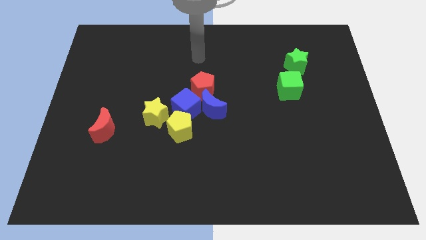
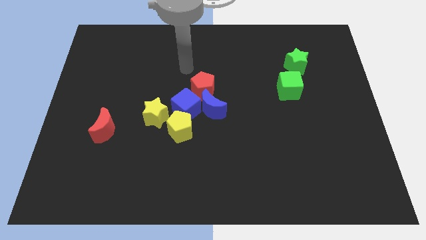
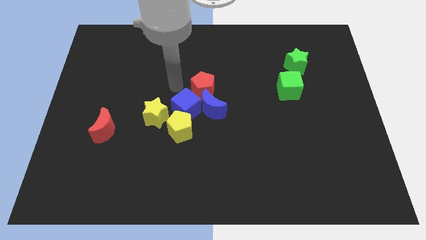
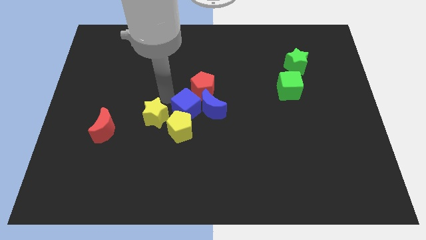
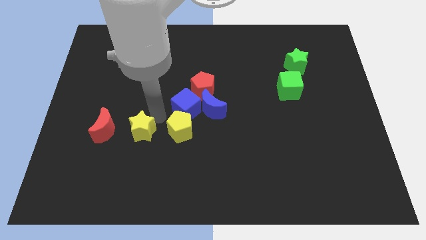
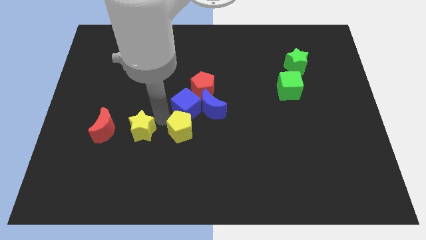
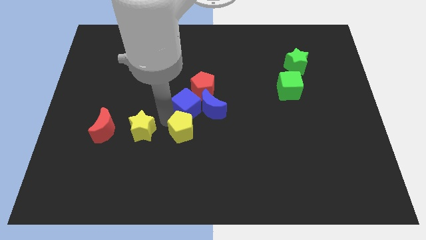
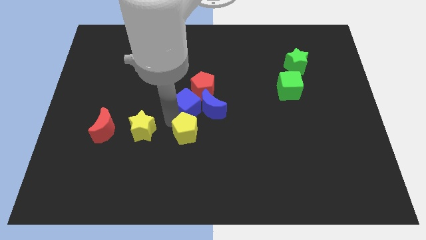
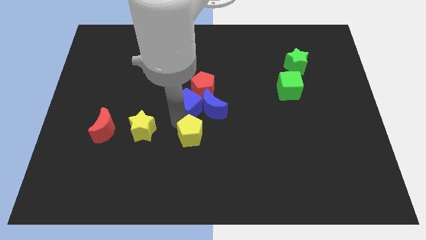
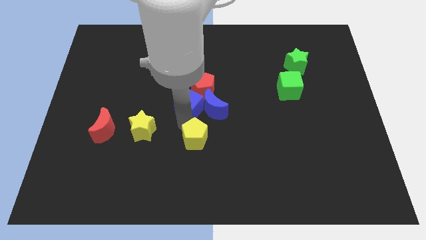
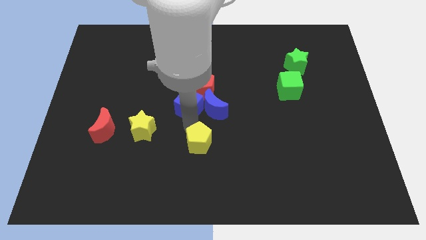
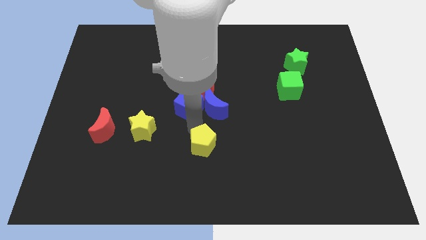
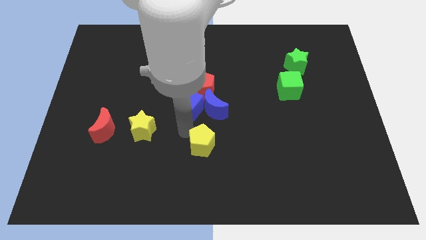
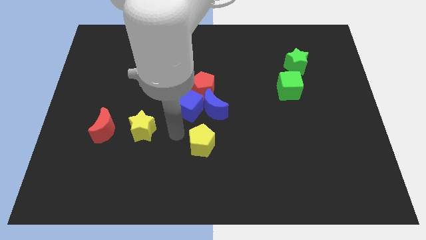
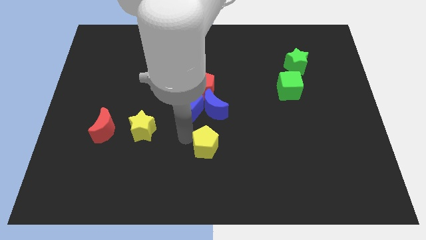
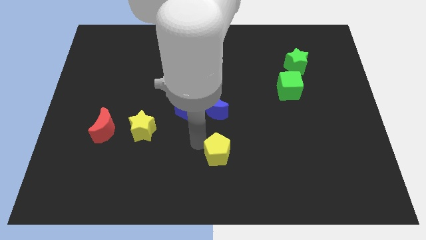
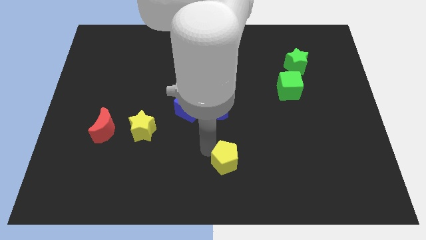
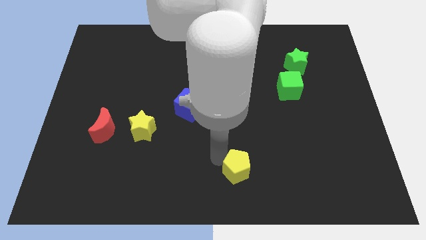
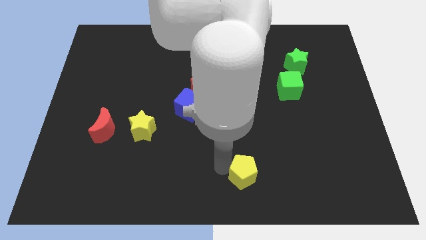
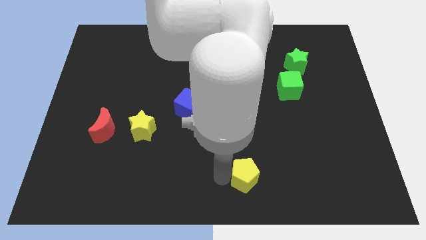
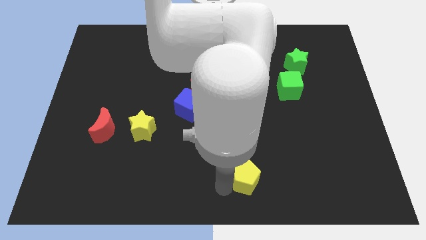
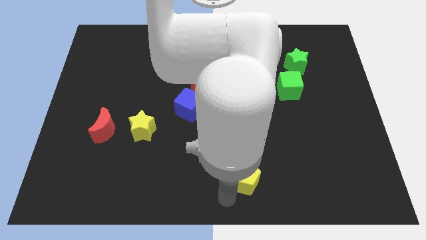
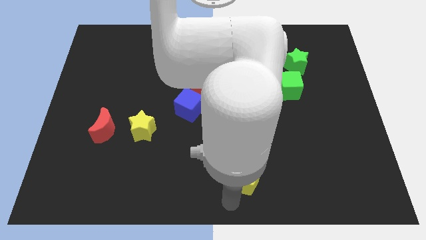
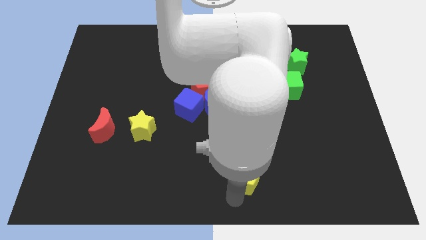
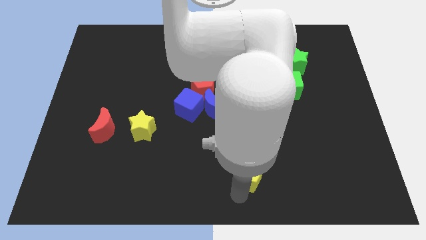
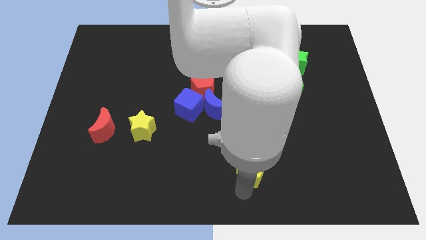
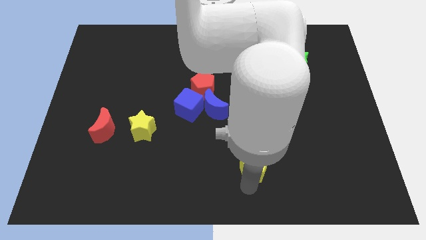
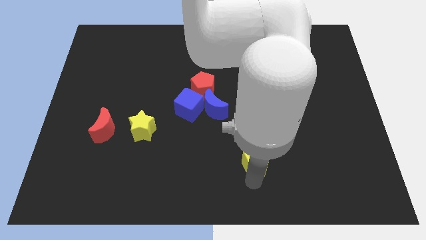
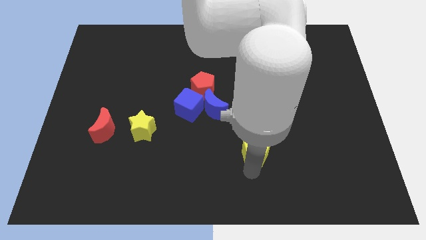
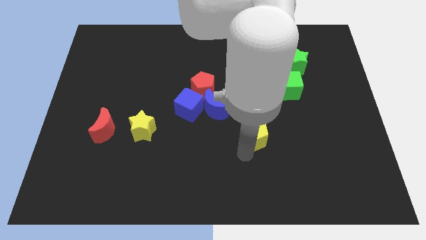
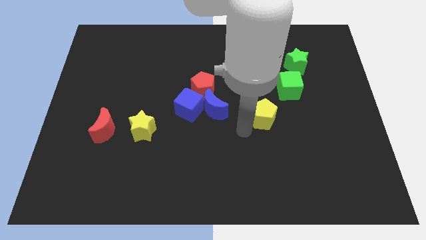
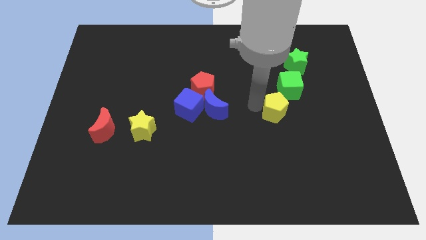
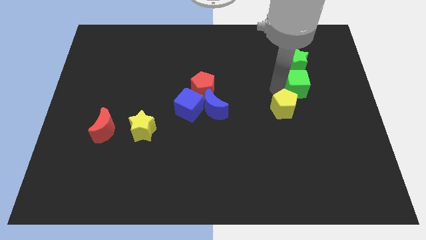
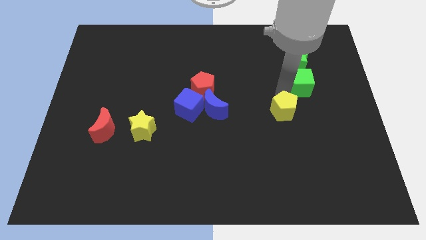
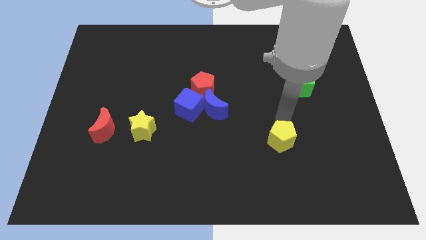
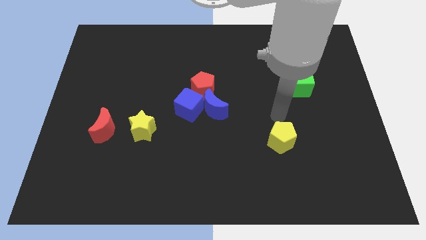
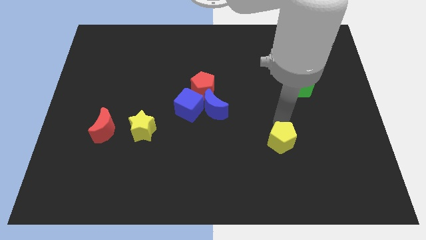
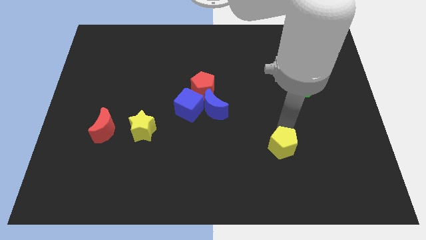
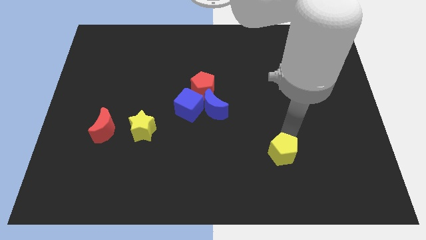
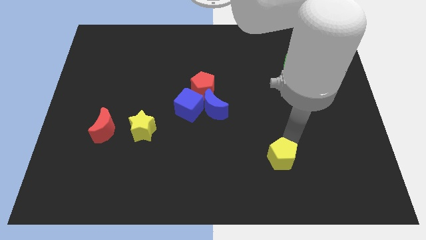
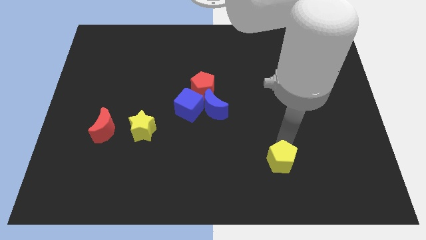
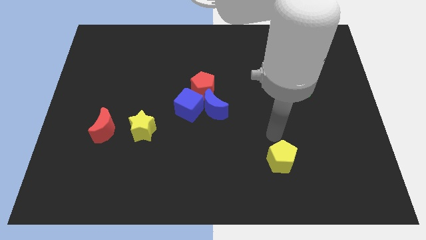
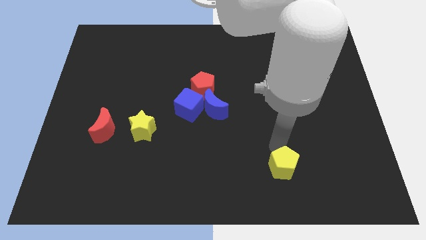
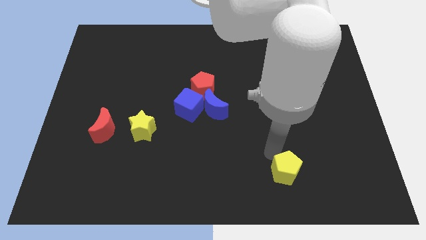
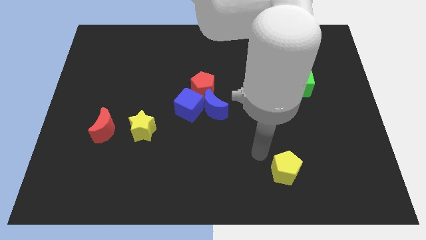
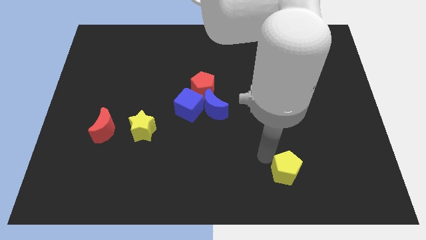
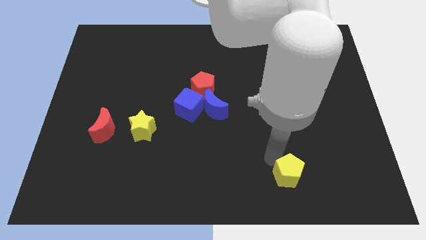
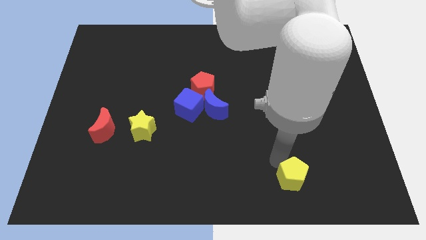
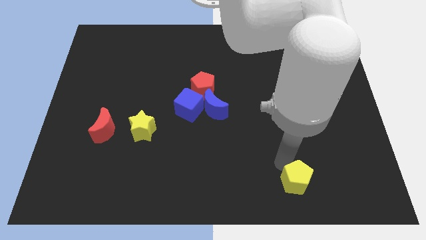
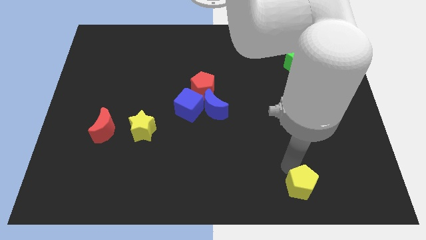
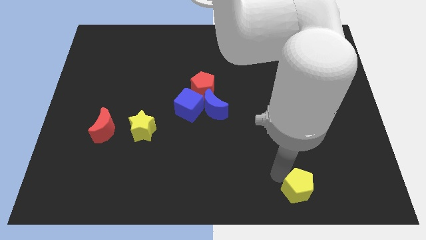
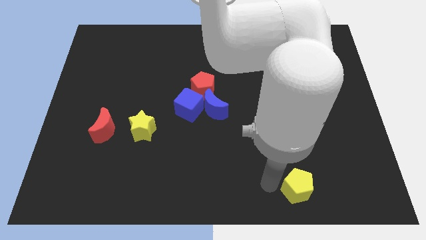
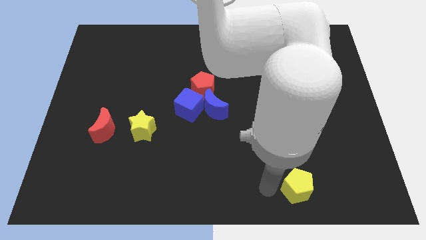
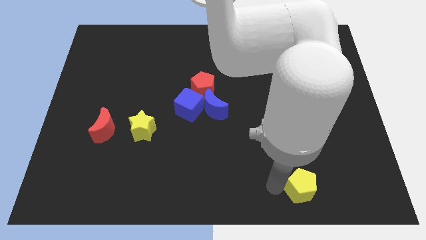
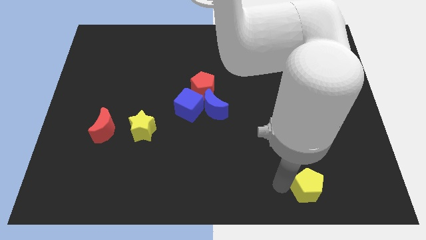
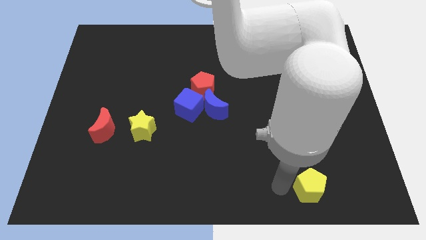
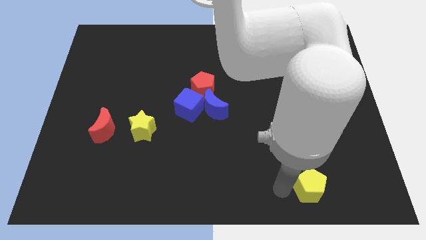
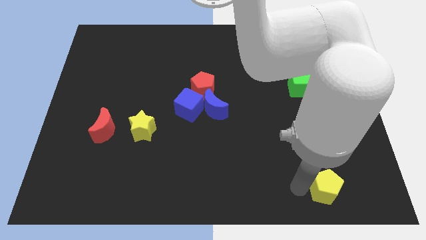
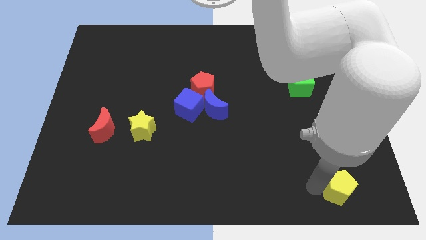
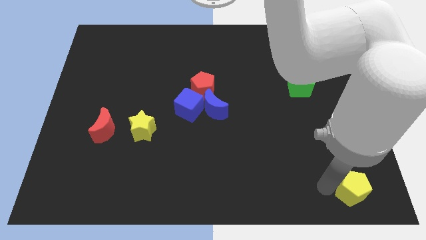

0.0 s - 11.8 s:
move the yellow pentagon to the bottom right

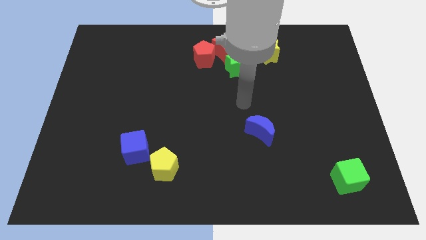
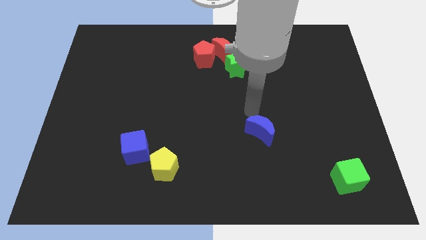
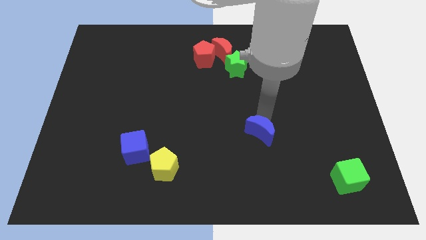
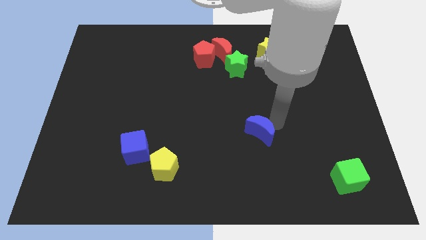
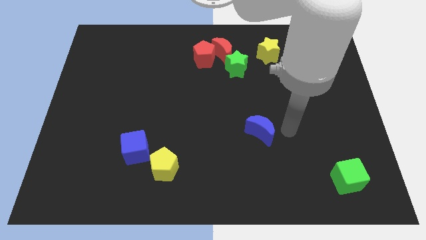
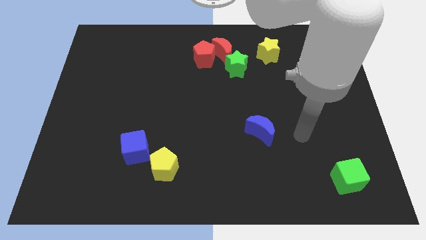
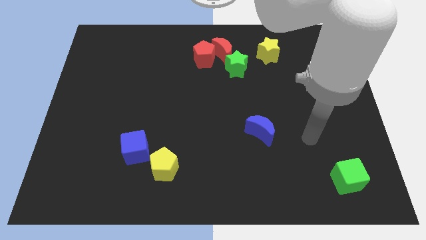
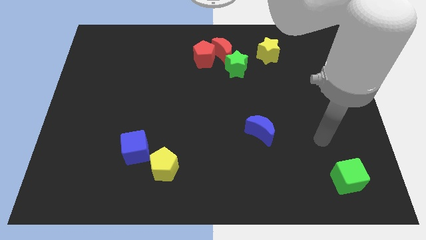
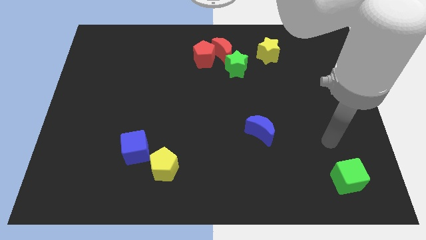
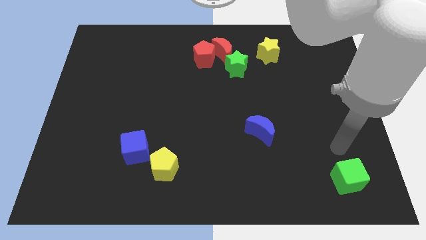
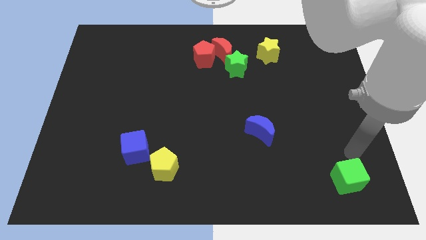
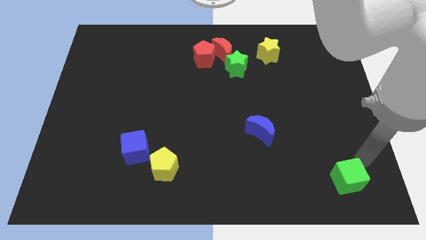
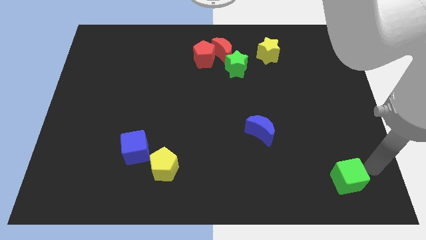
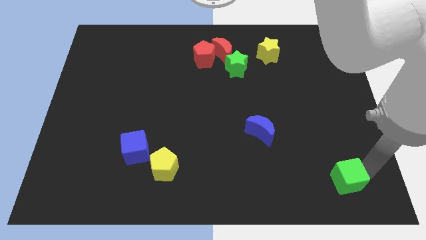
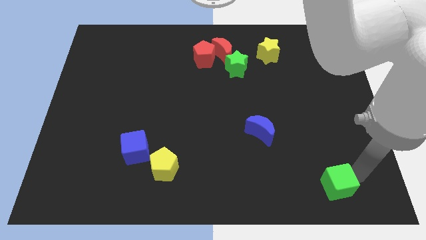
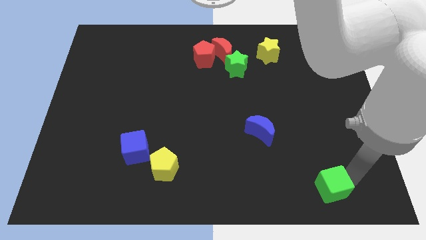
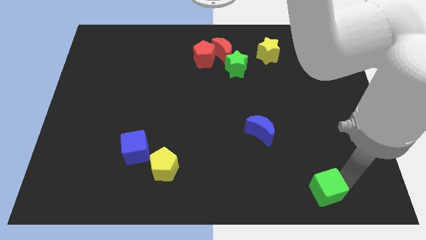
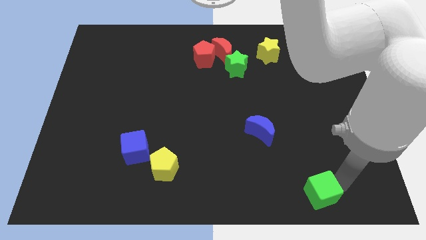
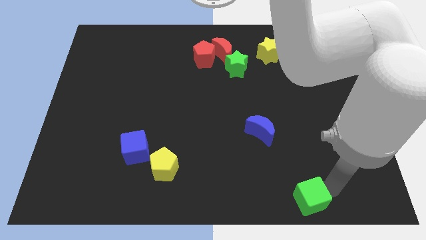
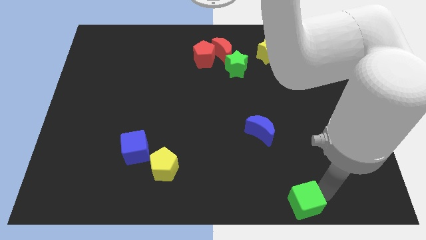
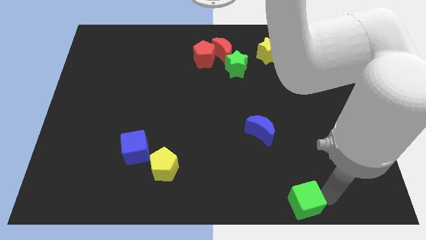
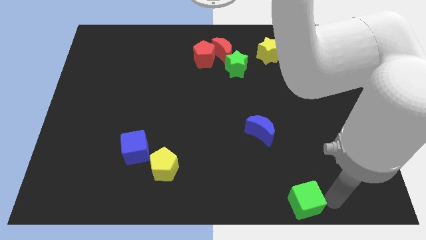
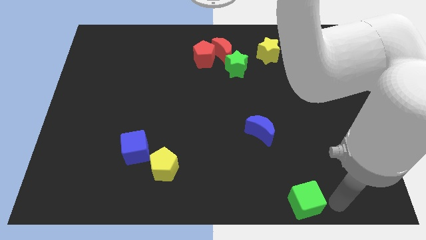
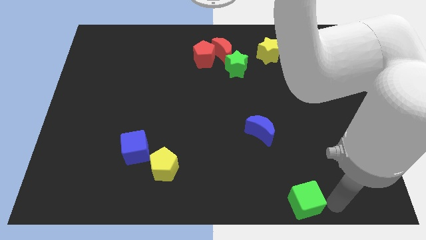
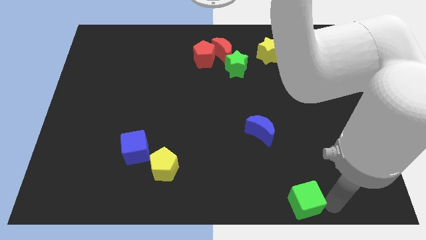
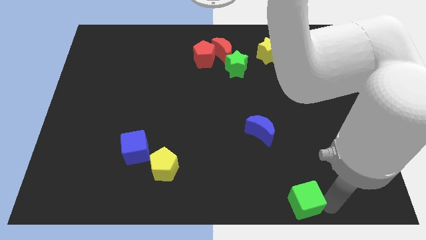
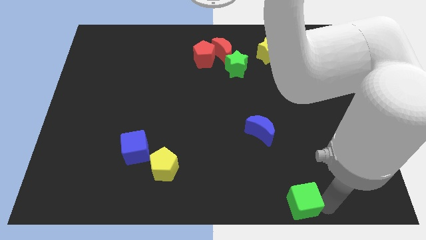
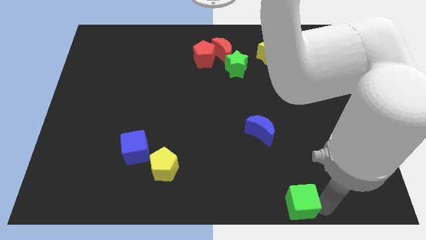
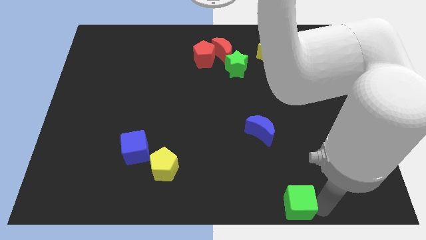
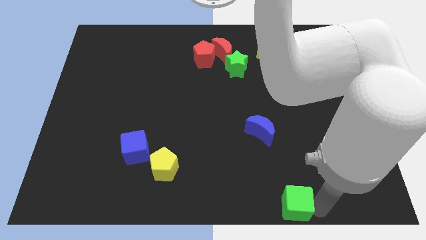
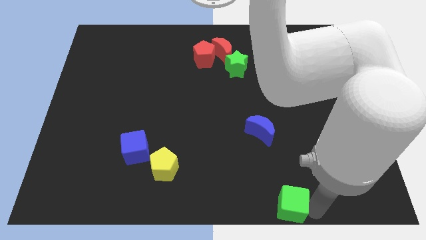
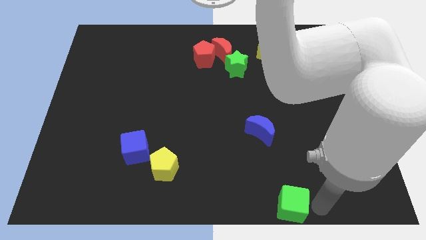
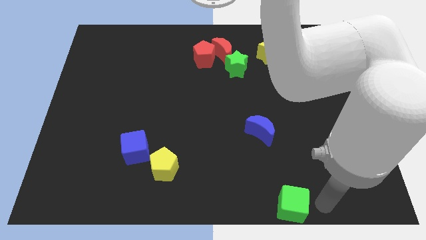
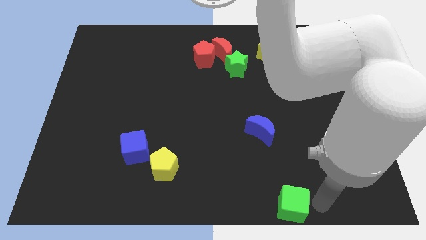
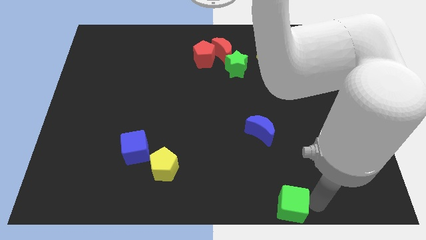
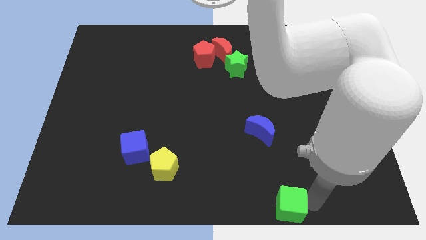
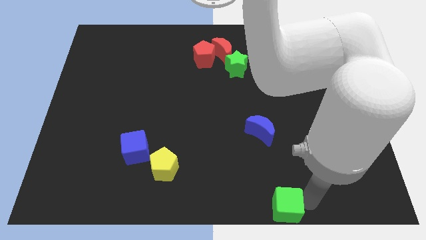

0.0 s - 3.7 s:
slide the green cube to the bottom side
